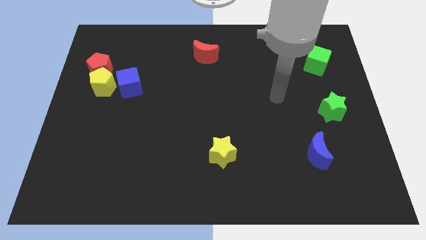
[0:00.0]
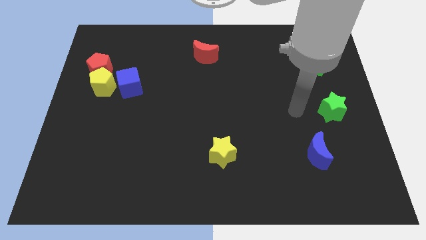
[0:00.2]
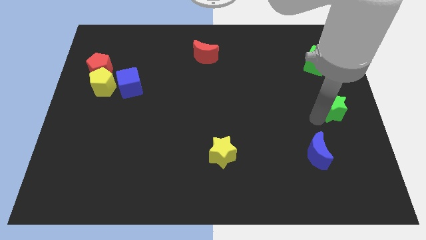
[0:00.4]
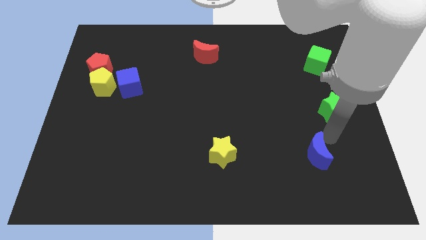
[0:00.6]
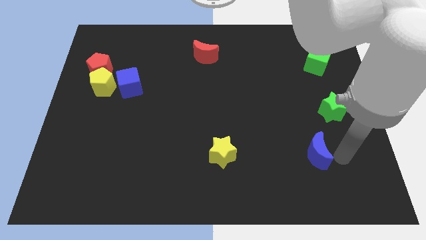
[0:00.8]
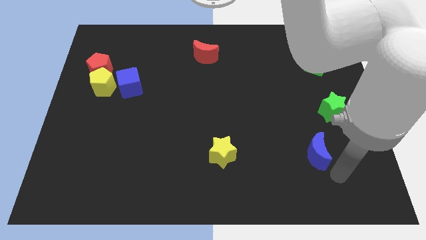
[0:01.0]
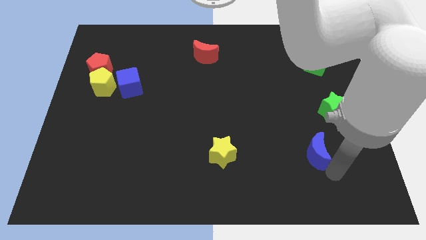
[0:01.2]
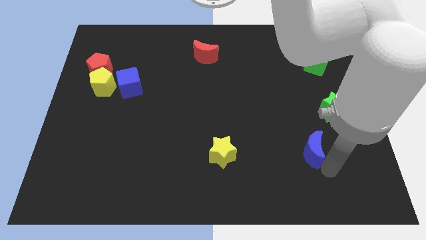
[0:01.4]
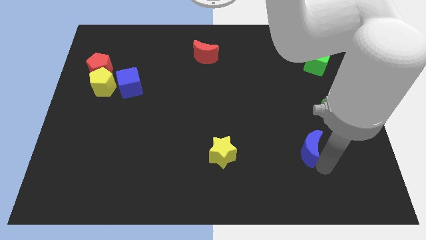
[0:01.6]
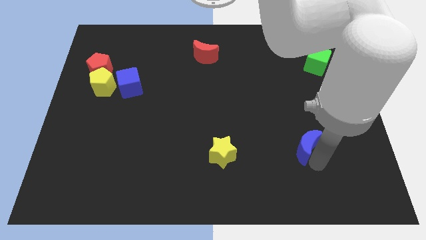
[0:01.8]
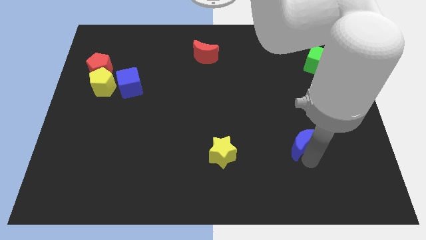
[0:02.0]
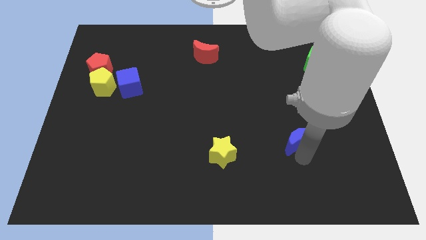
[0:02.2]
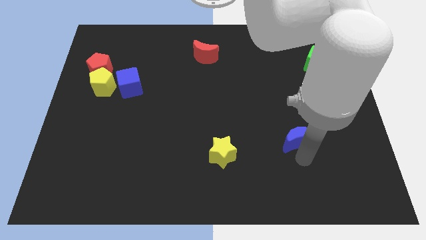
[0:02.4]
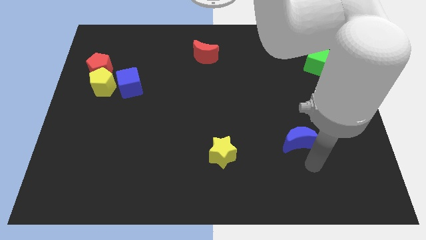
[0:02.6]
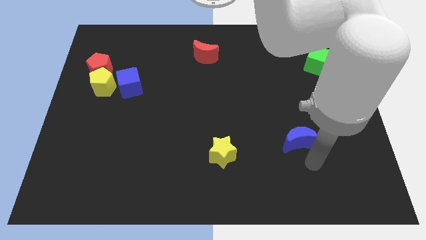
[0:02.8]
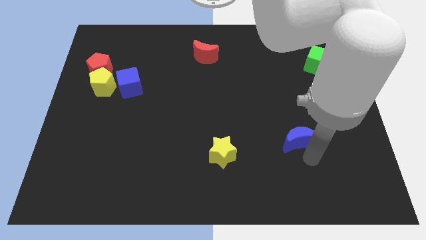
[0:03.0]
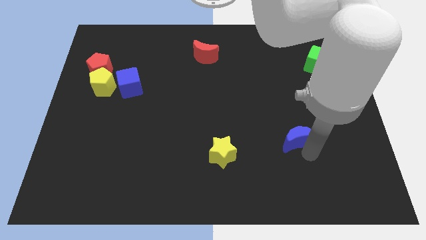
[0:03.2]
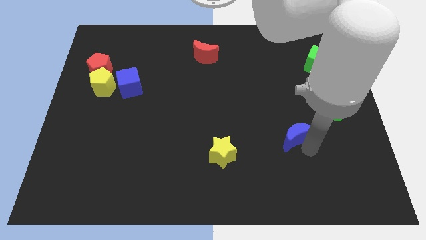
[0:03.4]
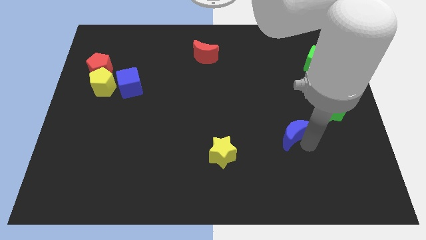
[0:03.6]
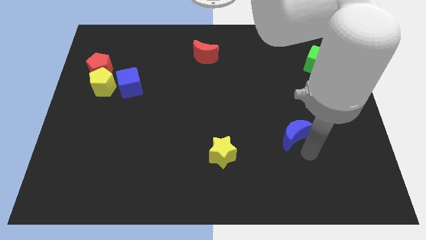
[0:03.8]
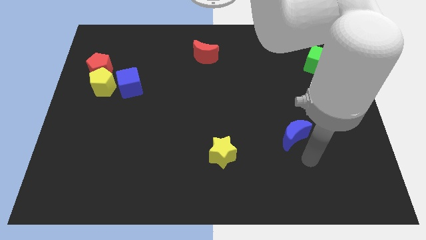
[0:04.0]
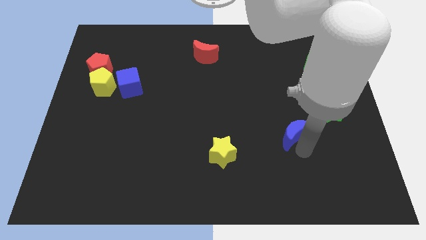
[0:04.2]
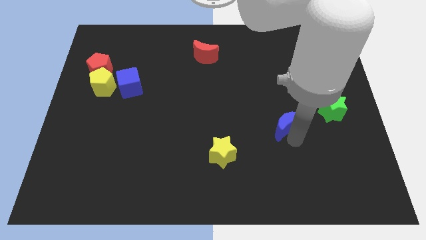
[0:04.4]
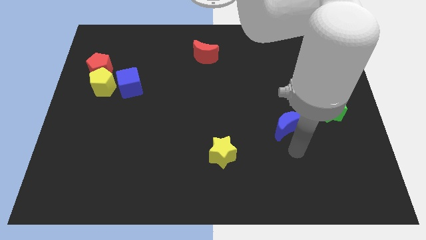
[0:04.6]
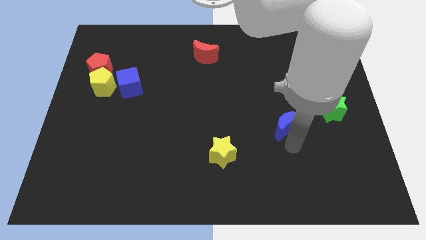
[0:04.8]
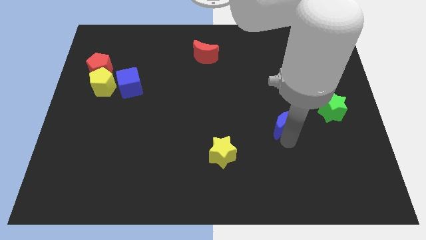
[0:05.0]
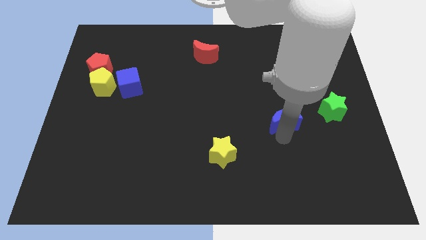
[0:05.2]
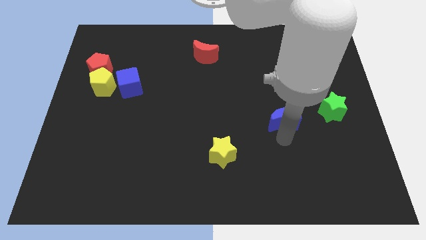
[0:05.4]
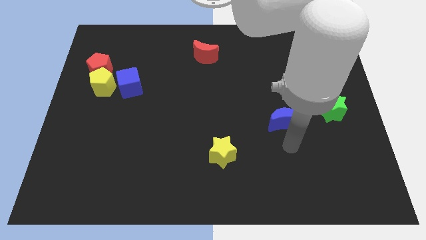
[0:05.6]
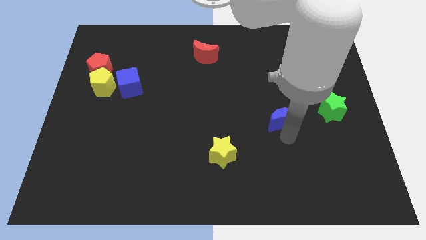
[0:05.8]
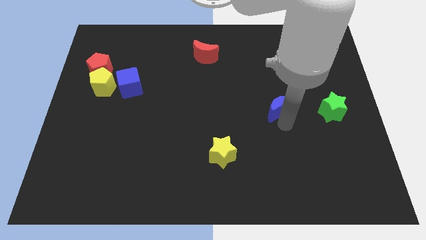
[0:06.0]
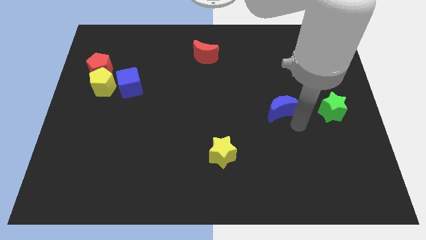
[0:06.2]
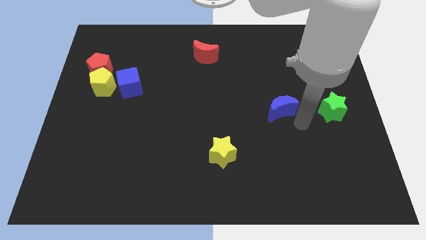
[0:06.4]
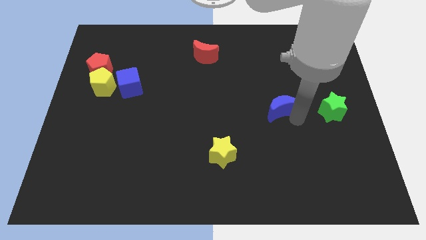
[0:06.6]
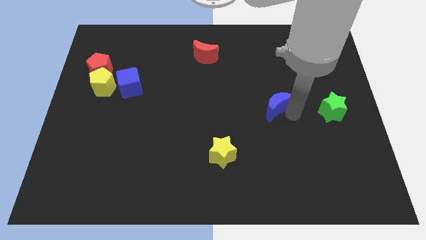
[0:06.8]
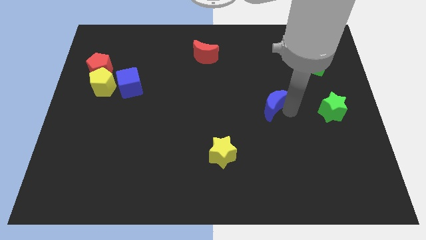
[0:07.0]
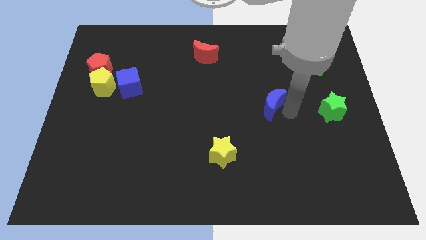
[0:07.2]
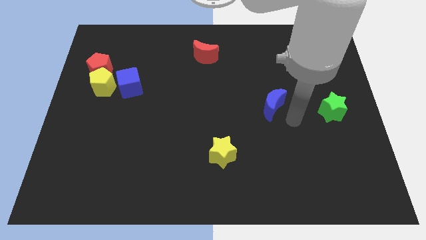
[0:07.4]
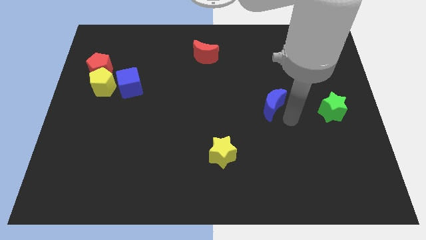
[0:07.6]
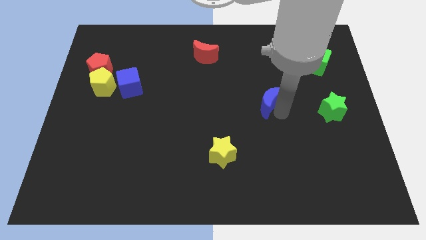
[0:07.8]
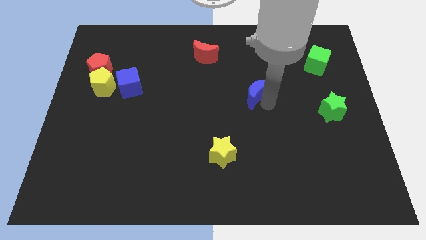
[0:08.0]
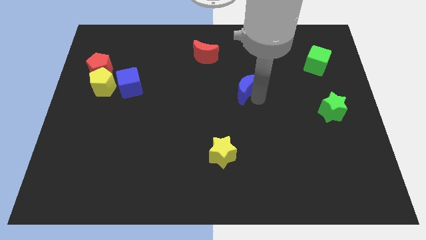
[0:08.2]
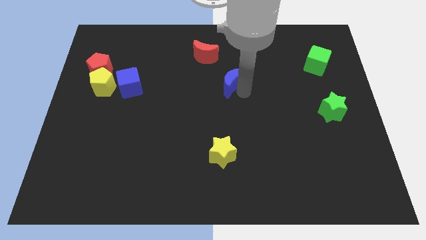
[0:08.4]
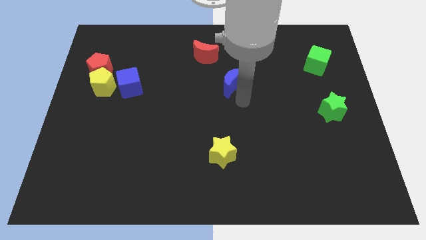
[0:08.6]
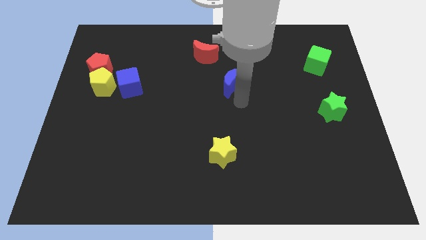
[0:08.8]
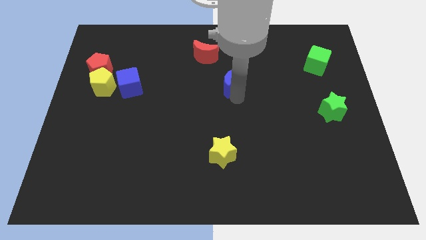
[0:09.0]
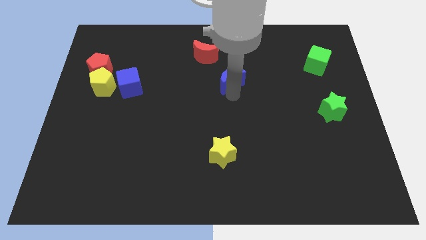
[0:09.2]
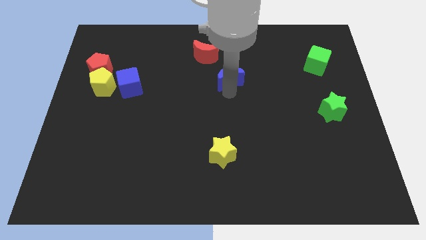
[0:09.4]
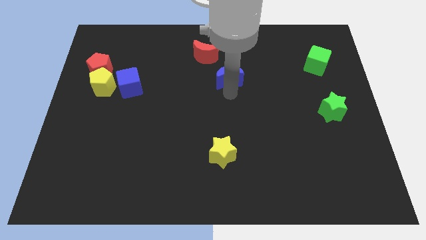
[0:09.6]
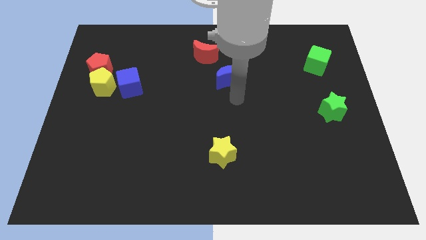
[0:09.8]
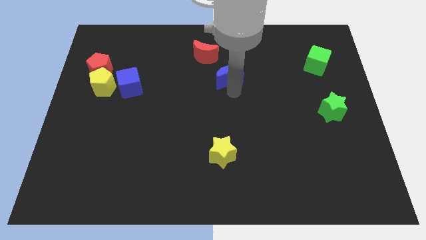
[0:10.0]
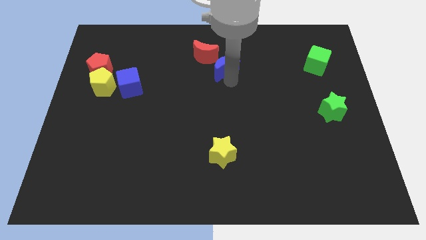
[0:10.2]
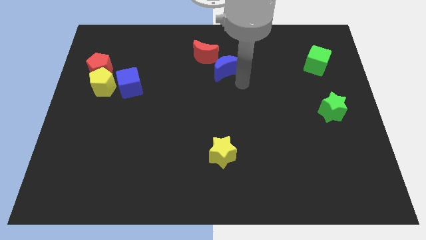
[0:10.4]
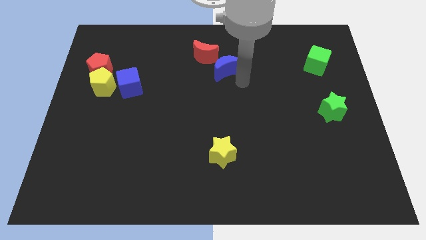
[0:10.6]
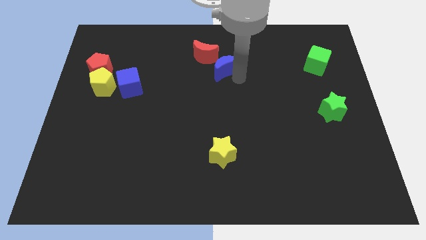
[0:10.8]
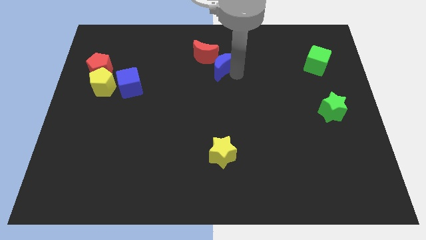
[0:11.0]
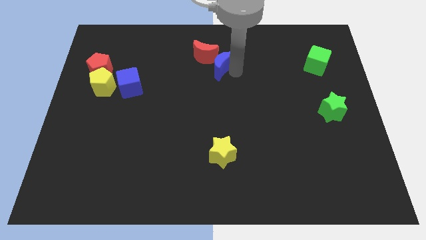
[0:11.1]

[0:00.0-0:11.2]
move the blue moon to the red moon

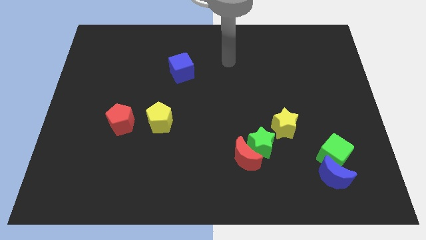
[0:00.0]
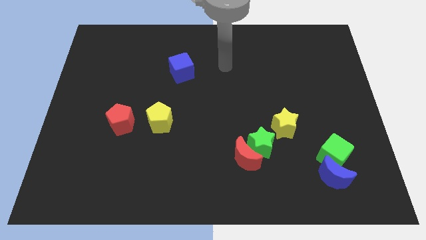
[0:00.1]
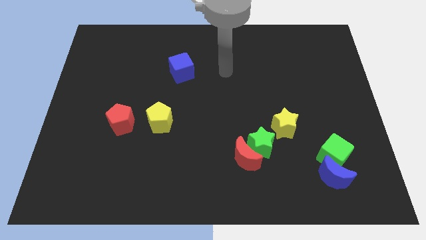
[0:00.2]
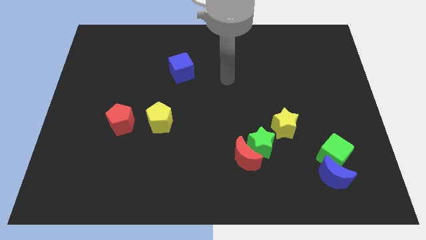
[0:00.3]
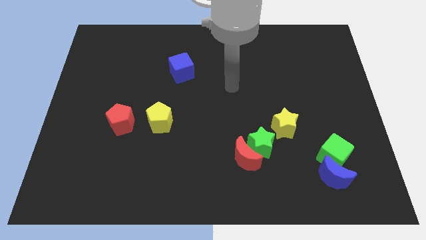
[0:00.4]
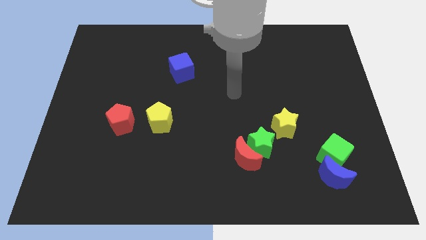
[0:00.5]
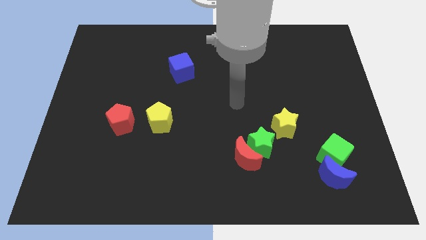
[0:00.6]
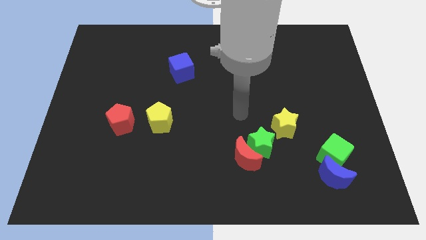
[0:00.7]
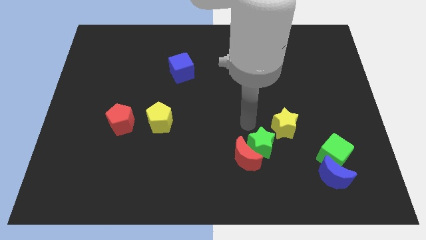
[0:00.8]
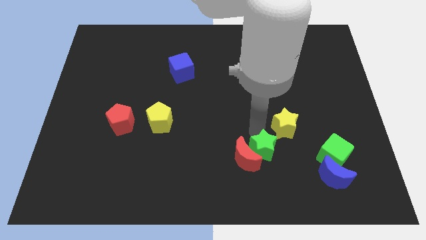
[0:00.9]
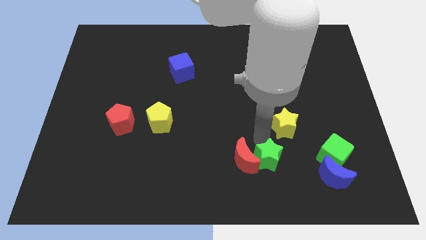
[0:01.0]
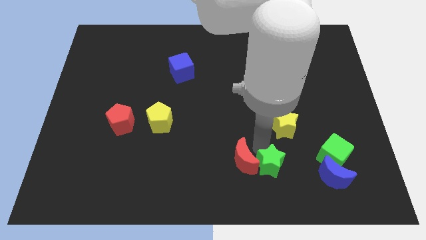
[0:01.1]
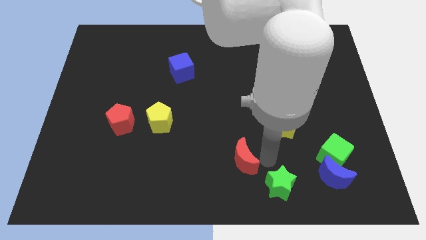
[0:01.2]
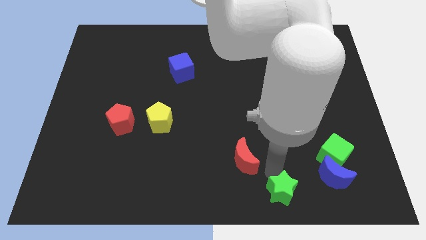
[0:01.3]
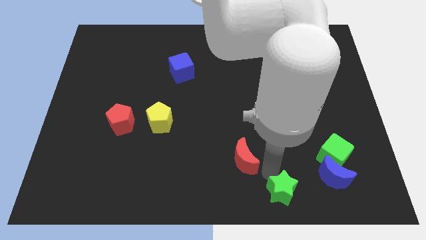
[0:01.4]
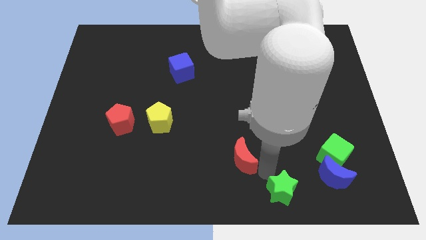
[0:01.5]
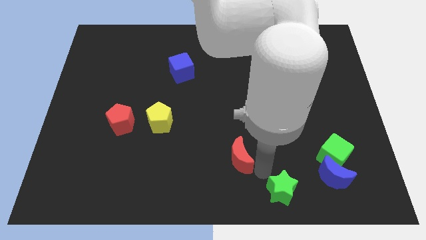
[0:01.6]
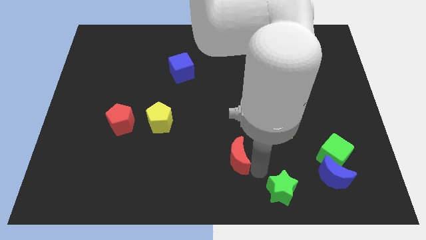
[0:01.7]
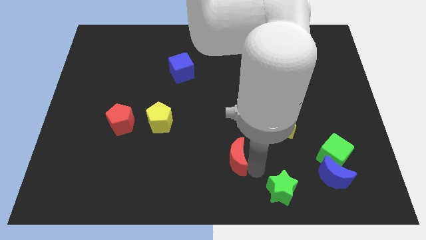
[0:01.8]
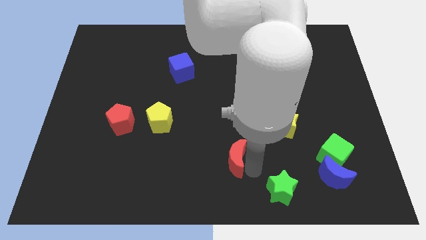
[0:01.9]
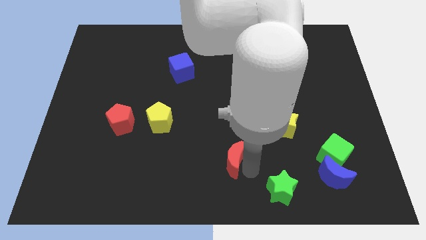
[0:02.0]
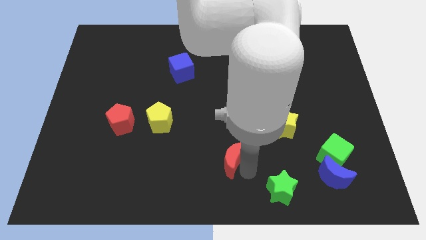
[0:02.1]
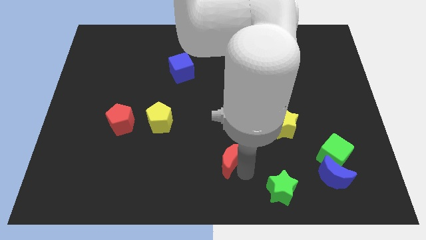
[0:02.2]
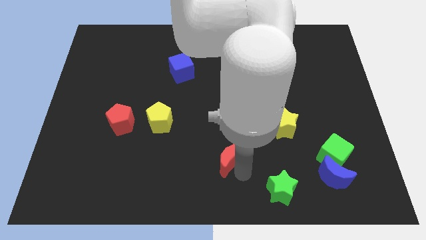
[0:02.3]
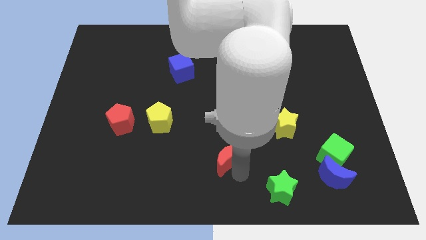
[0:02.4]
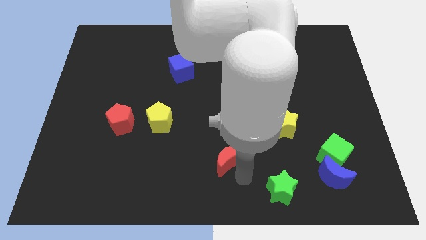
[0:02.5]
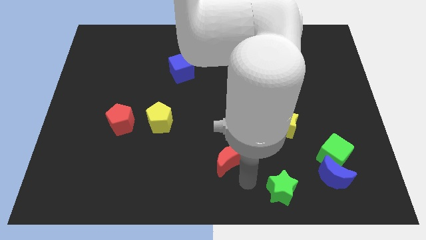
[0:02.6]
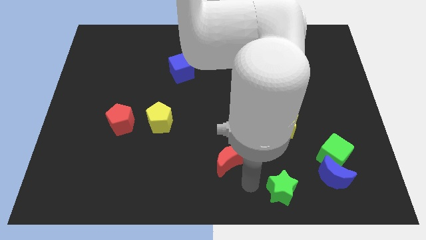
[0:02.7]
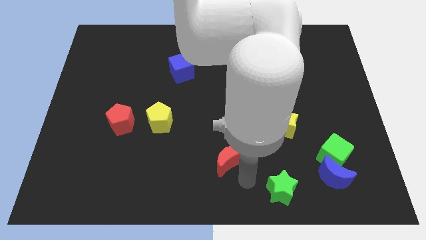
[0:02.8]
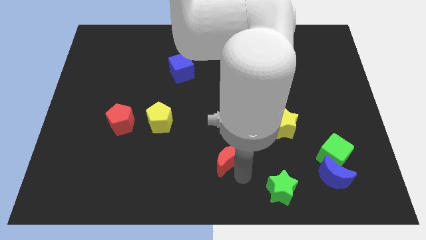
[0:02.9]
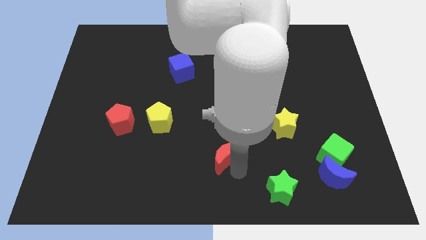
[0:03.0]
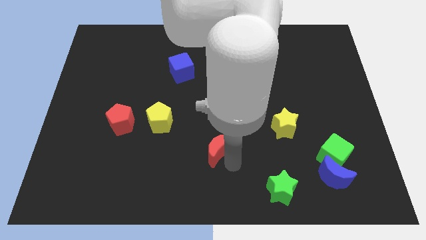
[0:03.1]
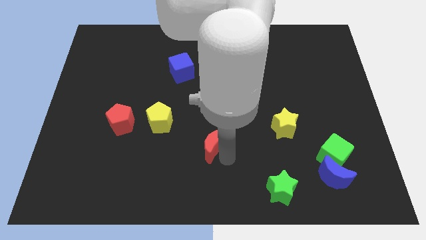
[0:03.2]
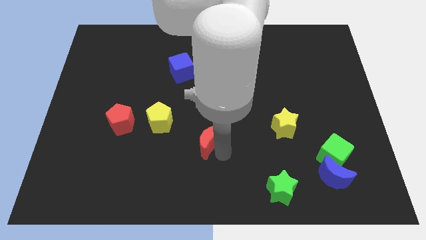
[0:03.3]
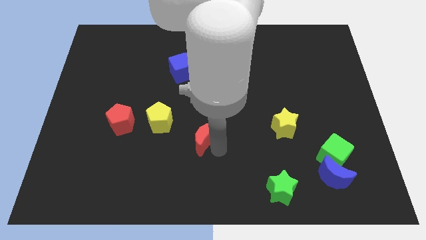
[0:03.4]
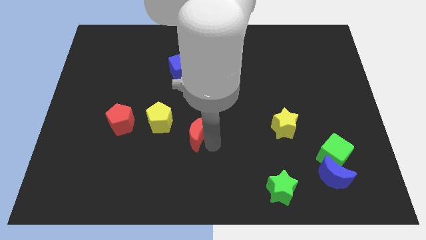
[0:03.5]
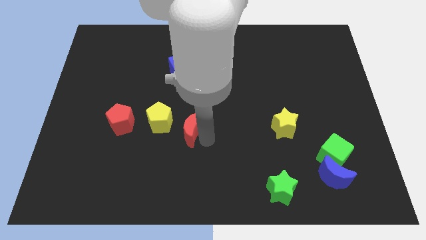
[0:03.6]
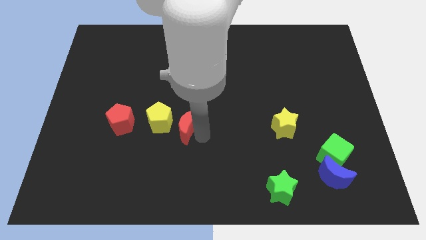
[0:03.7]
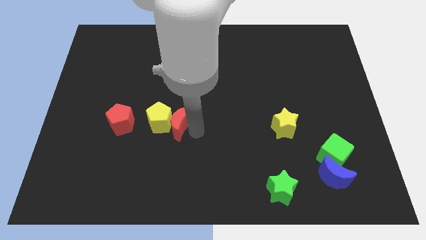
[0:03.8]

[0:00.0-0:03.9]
put the red moon to the yellow pentagon
